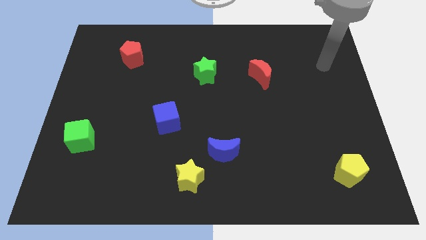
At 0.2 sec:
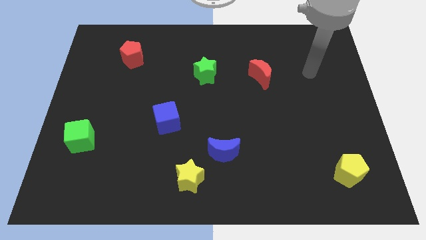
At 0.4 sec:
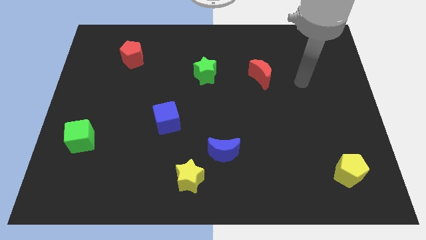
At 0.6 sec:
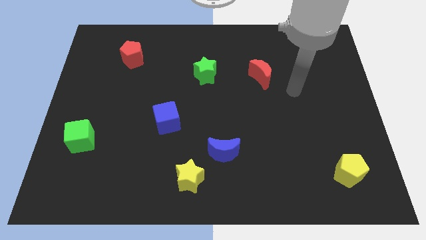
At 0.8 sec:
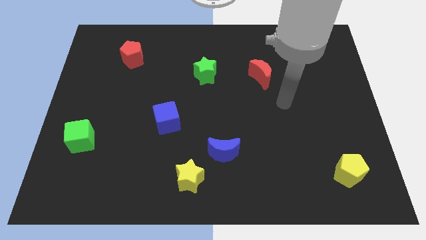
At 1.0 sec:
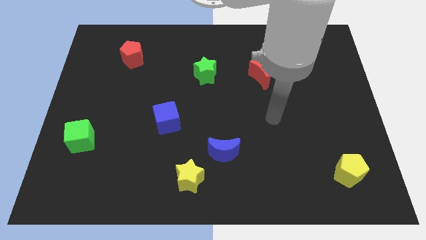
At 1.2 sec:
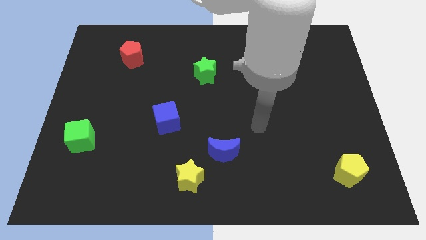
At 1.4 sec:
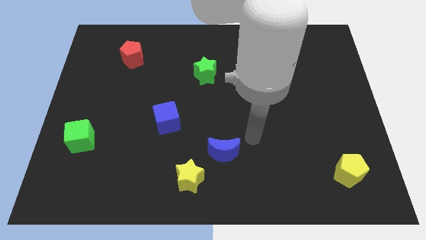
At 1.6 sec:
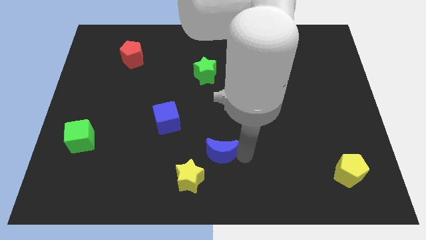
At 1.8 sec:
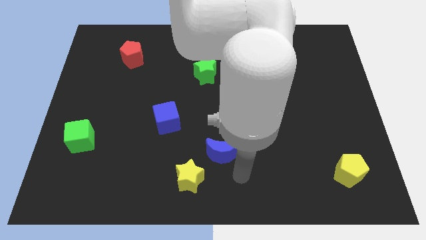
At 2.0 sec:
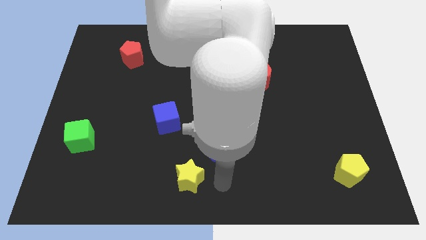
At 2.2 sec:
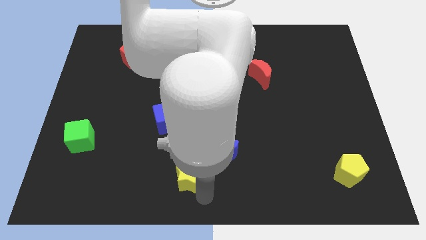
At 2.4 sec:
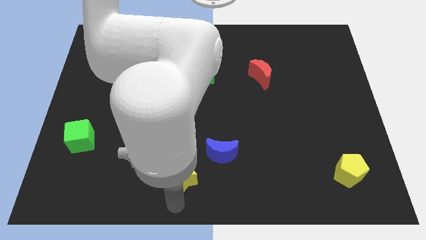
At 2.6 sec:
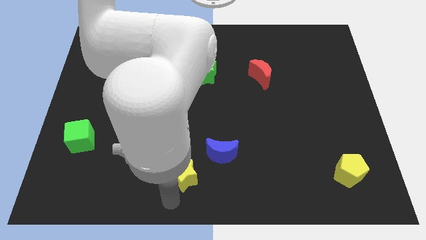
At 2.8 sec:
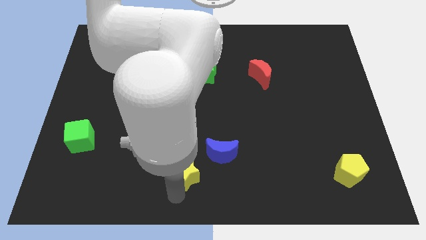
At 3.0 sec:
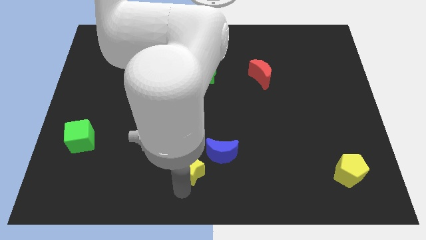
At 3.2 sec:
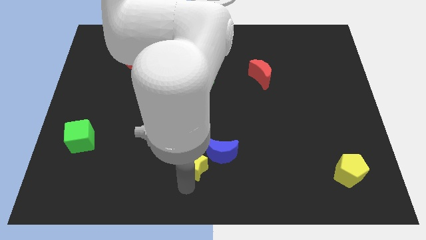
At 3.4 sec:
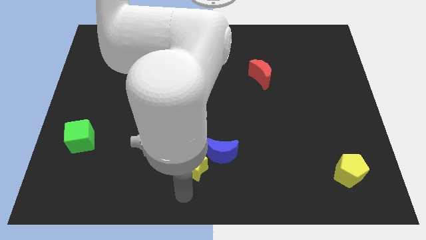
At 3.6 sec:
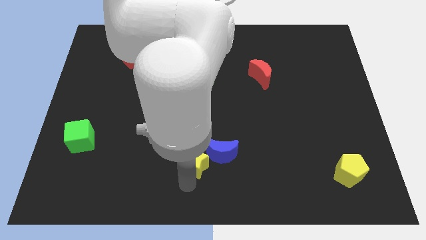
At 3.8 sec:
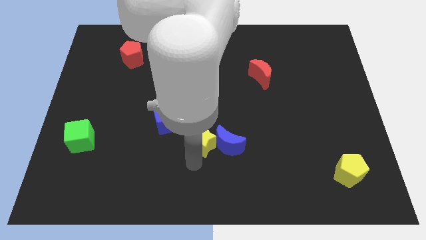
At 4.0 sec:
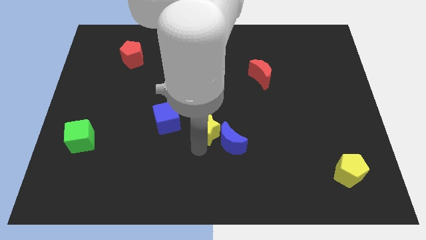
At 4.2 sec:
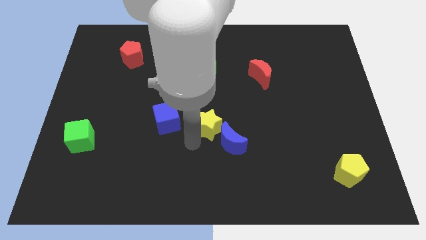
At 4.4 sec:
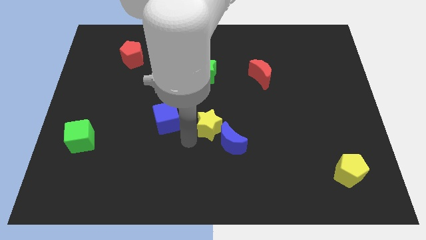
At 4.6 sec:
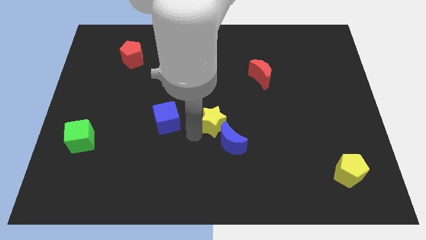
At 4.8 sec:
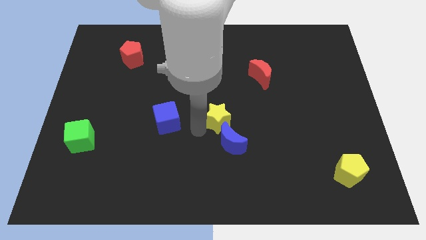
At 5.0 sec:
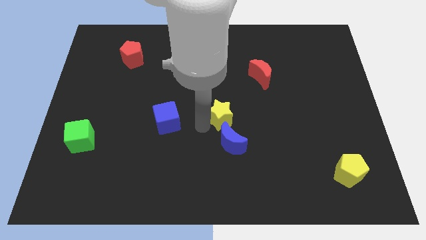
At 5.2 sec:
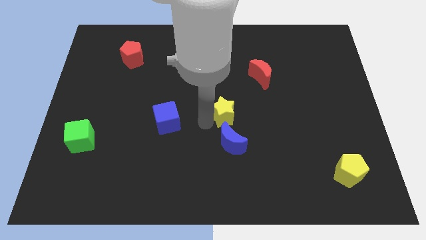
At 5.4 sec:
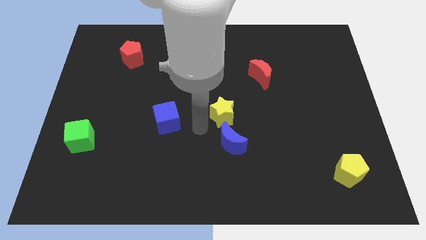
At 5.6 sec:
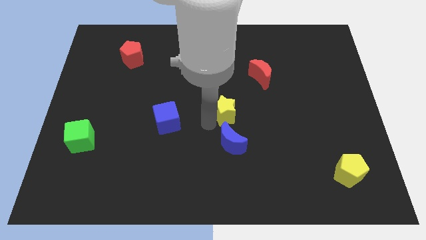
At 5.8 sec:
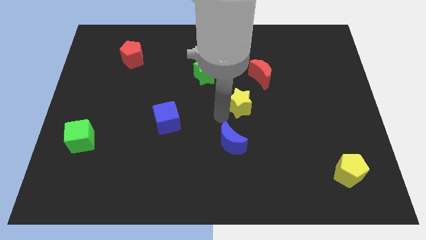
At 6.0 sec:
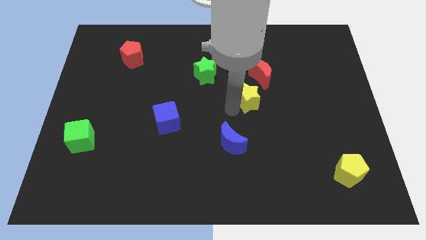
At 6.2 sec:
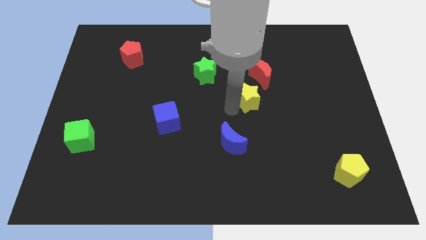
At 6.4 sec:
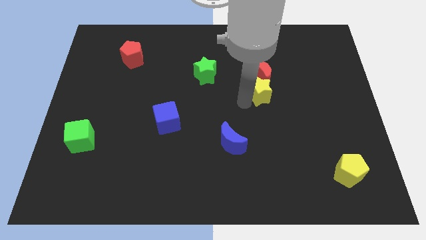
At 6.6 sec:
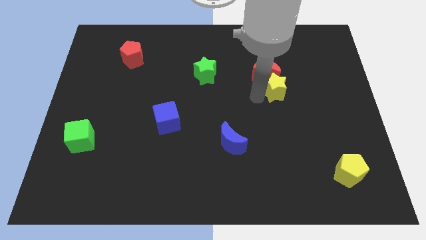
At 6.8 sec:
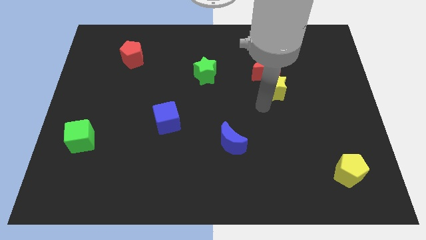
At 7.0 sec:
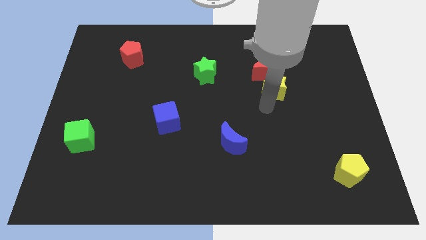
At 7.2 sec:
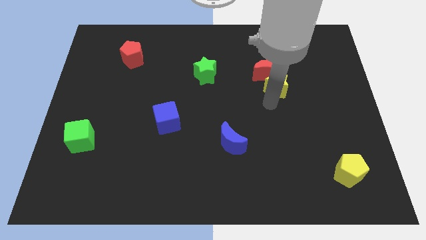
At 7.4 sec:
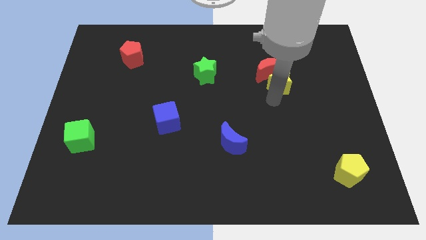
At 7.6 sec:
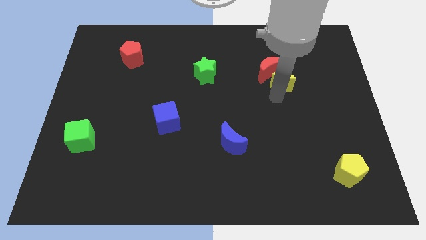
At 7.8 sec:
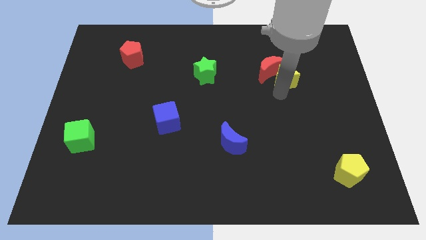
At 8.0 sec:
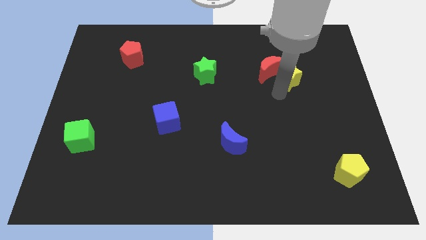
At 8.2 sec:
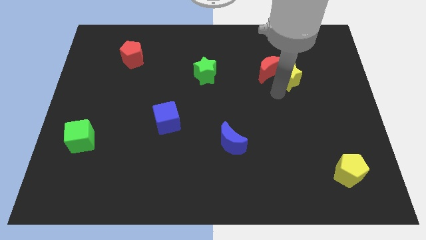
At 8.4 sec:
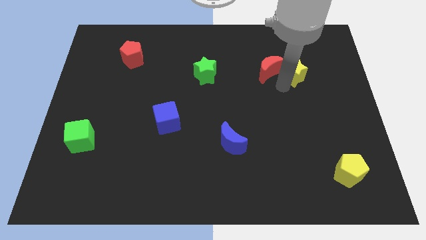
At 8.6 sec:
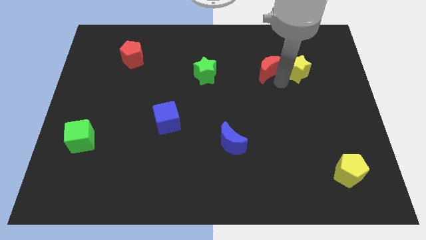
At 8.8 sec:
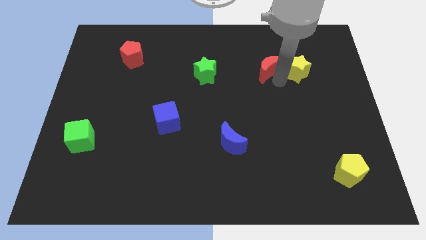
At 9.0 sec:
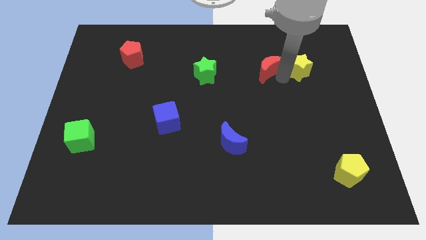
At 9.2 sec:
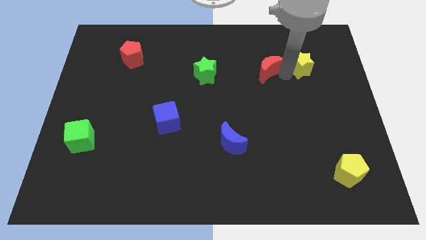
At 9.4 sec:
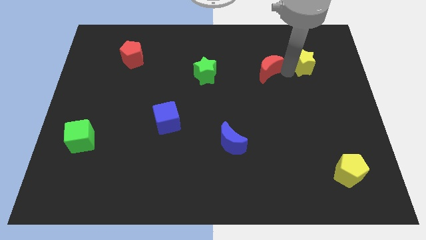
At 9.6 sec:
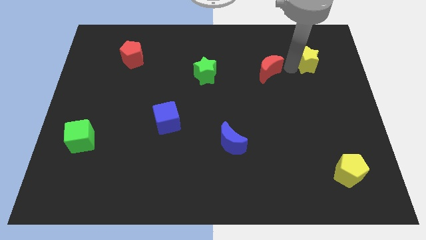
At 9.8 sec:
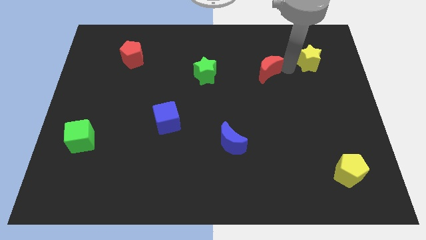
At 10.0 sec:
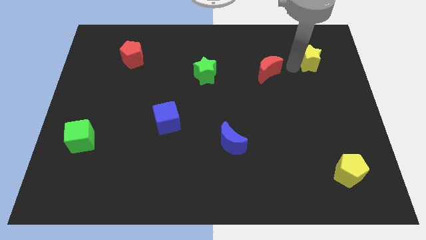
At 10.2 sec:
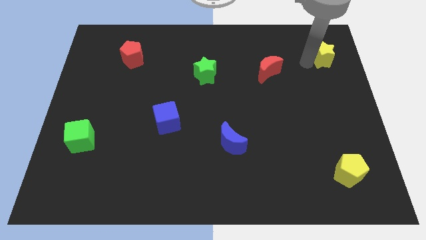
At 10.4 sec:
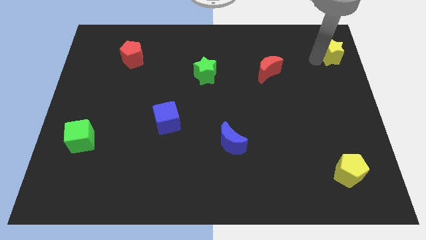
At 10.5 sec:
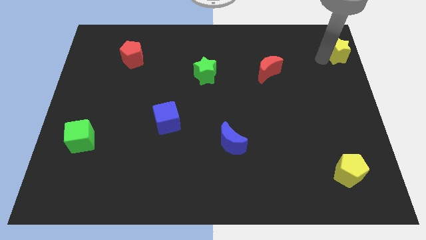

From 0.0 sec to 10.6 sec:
move the yellow star to the top right corner
